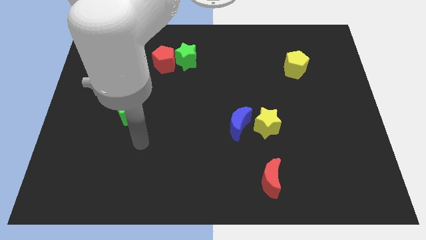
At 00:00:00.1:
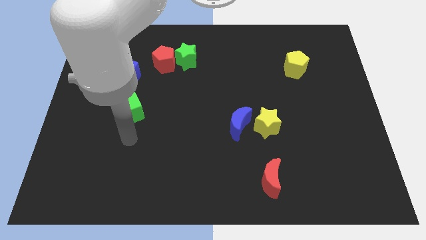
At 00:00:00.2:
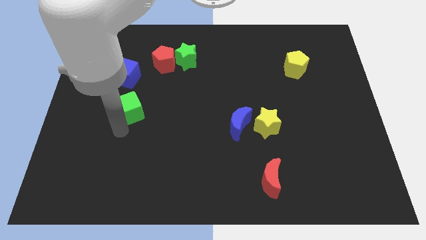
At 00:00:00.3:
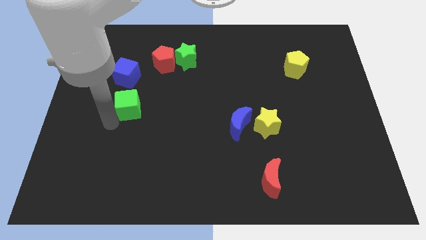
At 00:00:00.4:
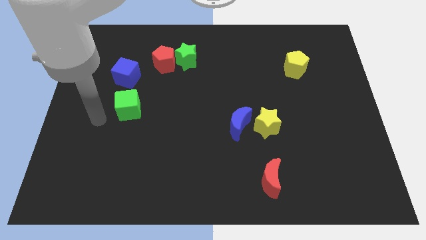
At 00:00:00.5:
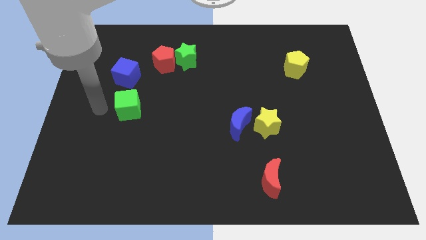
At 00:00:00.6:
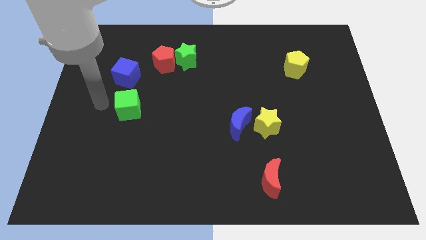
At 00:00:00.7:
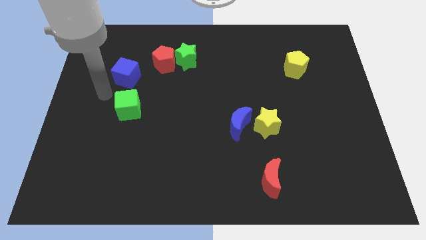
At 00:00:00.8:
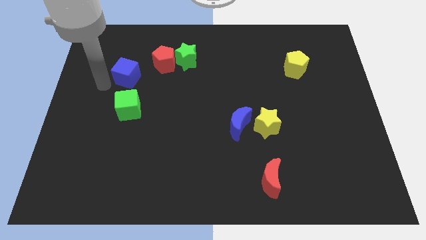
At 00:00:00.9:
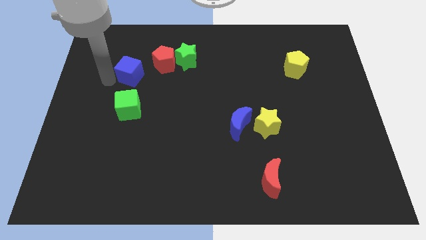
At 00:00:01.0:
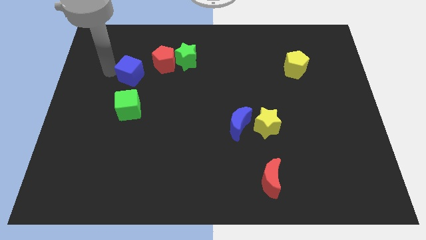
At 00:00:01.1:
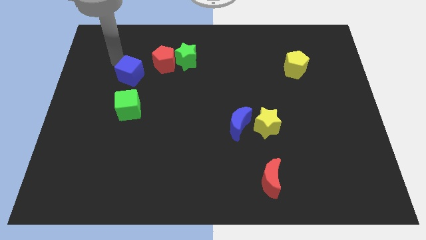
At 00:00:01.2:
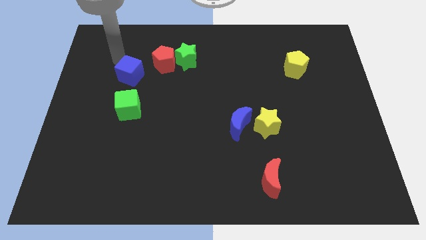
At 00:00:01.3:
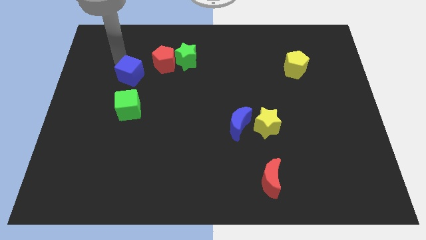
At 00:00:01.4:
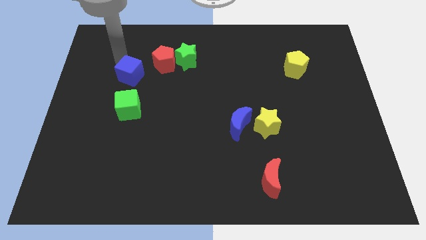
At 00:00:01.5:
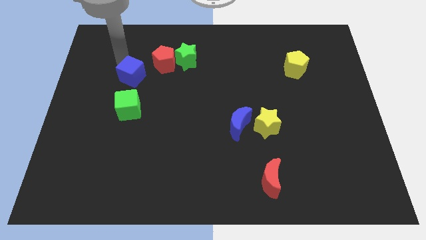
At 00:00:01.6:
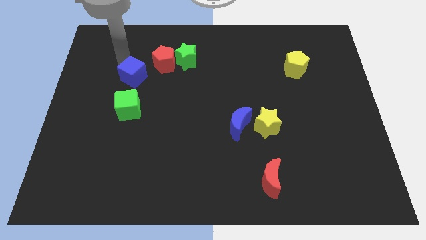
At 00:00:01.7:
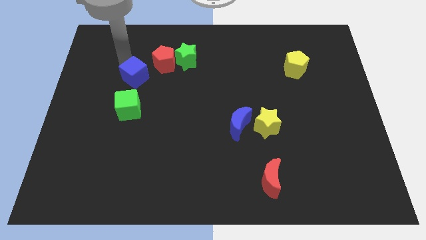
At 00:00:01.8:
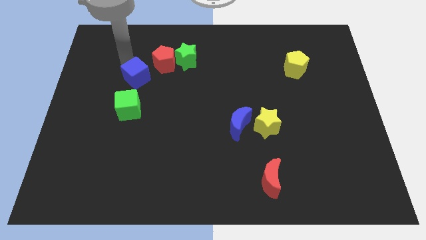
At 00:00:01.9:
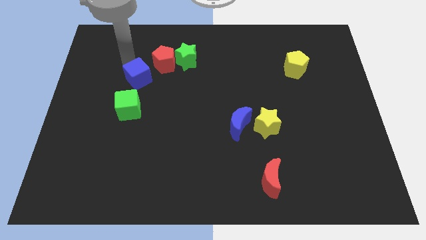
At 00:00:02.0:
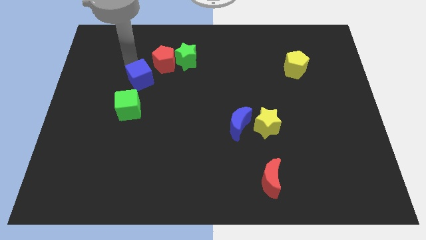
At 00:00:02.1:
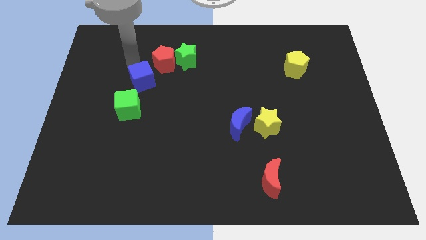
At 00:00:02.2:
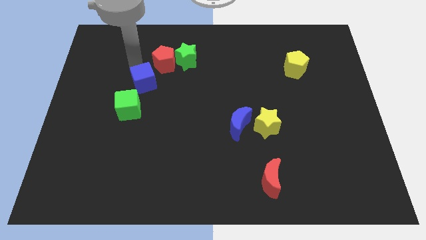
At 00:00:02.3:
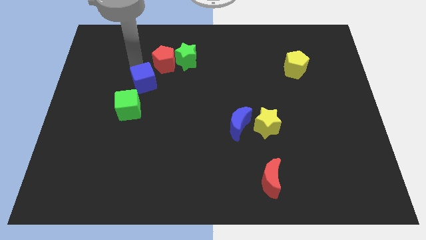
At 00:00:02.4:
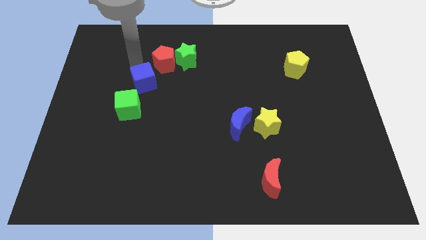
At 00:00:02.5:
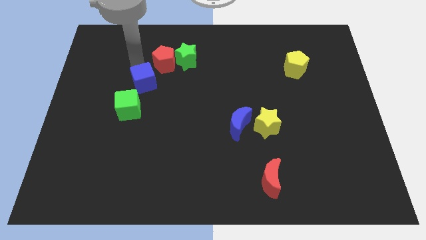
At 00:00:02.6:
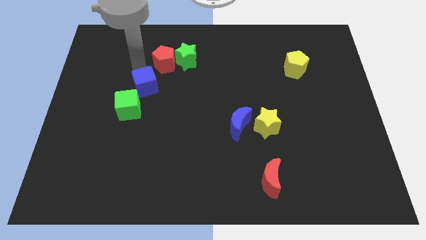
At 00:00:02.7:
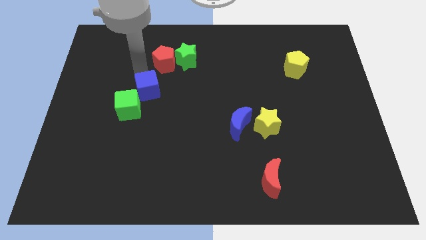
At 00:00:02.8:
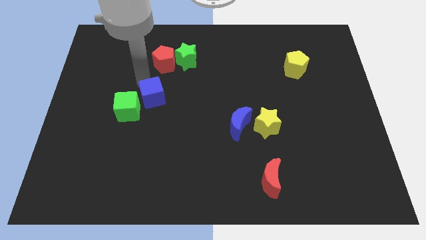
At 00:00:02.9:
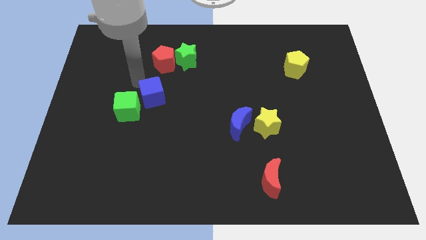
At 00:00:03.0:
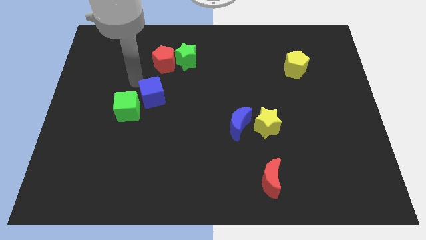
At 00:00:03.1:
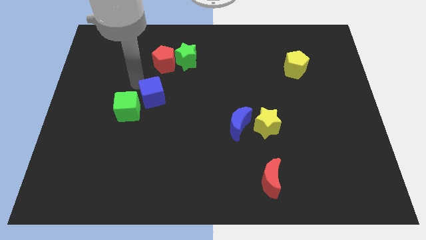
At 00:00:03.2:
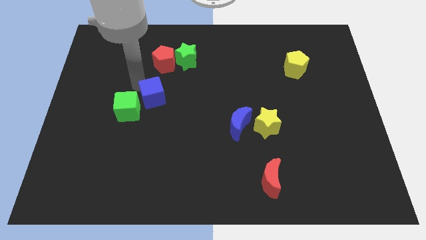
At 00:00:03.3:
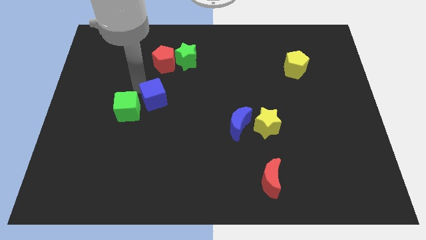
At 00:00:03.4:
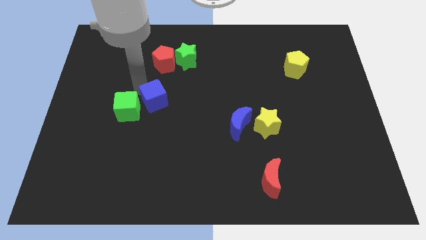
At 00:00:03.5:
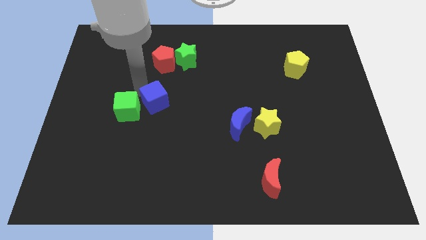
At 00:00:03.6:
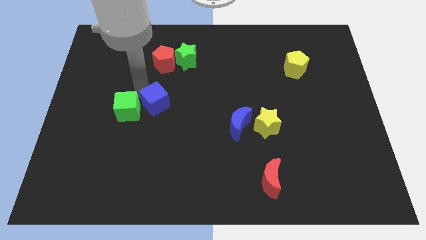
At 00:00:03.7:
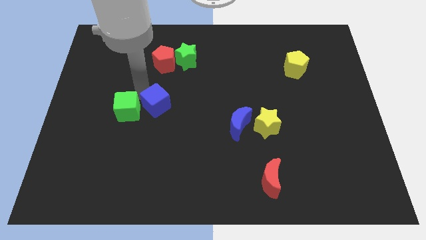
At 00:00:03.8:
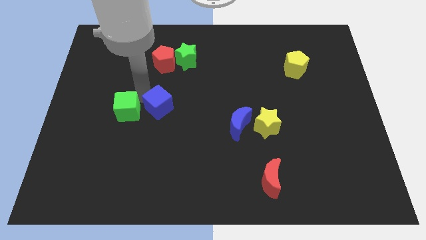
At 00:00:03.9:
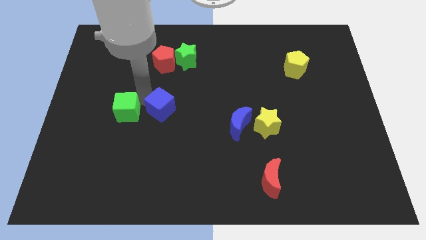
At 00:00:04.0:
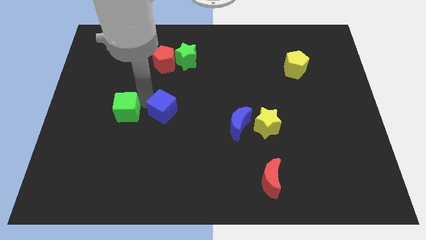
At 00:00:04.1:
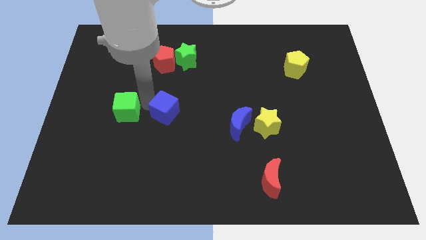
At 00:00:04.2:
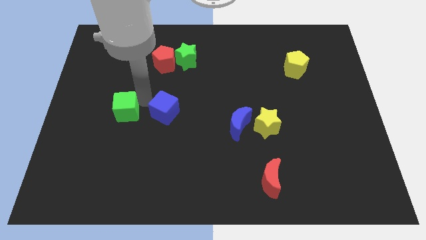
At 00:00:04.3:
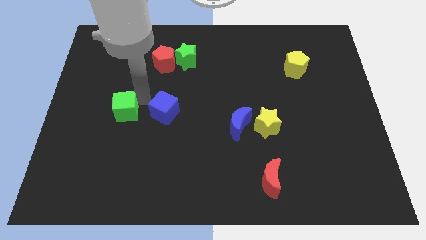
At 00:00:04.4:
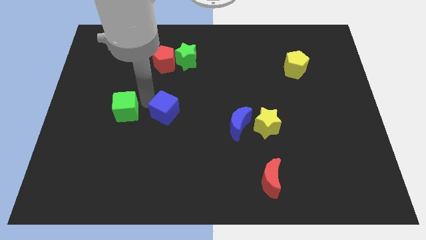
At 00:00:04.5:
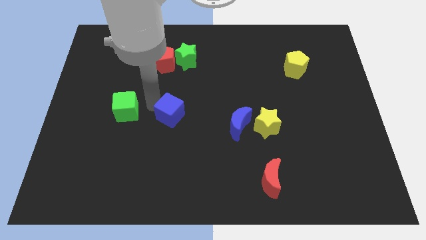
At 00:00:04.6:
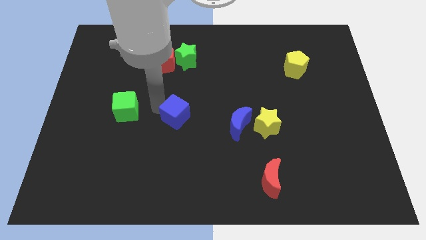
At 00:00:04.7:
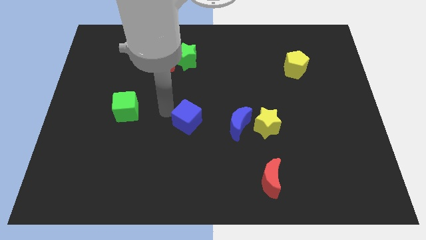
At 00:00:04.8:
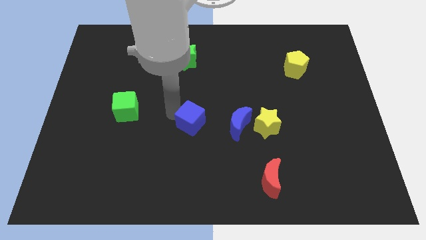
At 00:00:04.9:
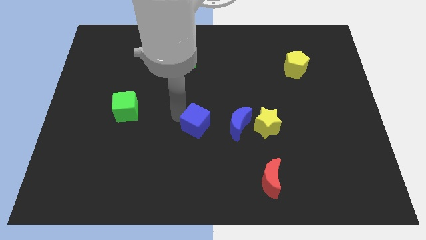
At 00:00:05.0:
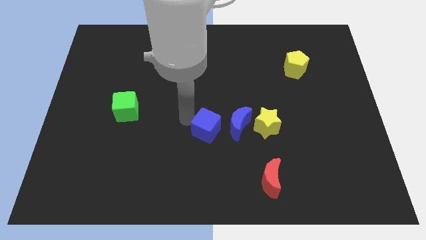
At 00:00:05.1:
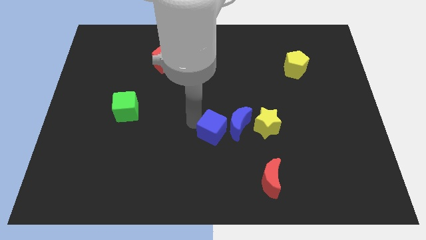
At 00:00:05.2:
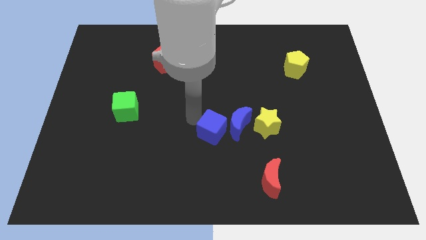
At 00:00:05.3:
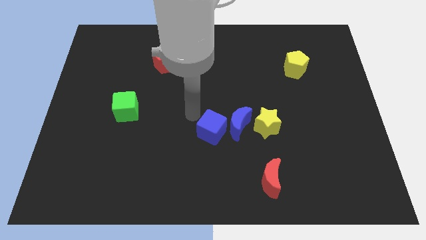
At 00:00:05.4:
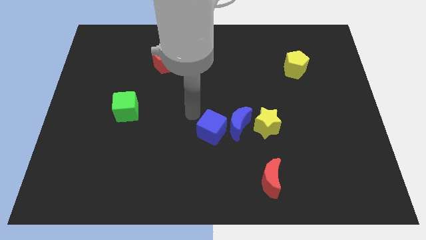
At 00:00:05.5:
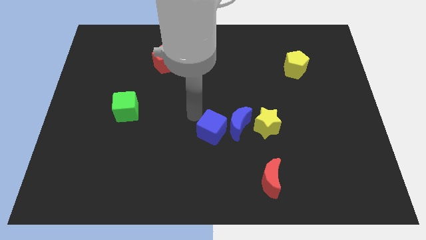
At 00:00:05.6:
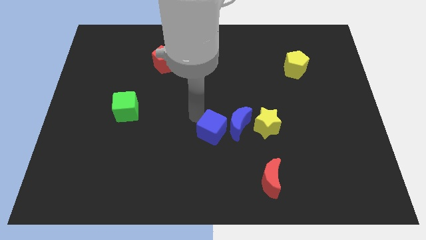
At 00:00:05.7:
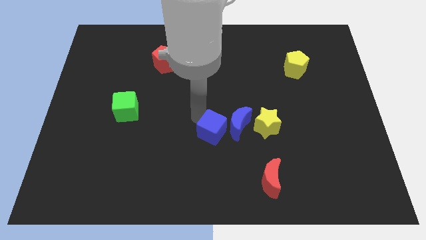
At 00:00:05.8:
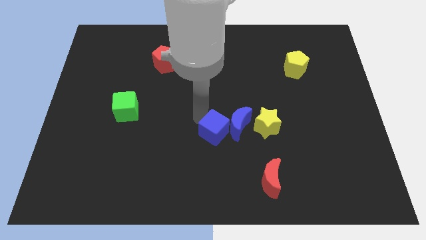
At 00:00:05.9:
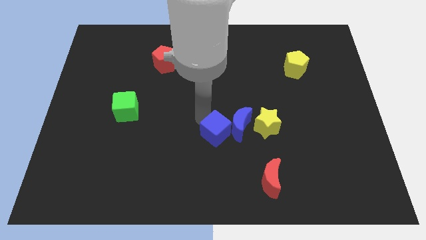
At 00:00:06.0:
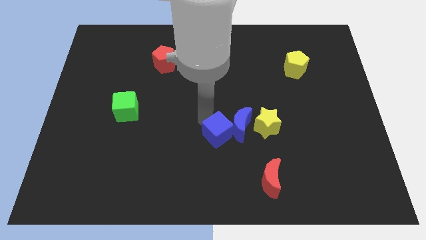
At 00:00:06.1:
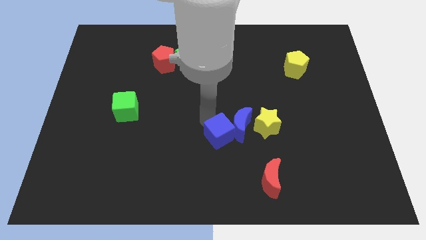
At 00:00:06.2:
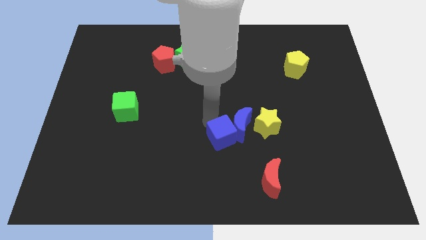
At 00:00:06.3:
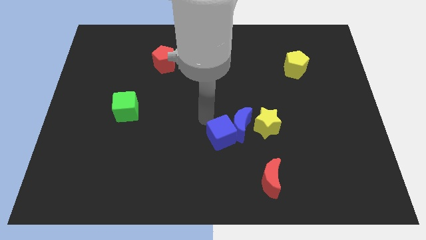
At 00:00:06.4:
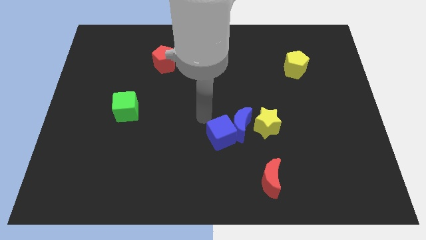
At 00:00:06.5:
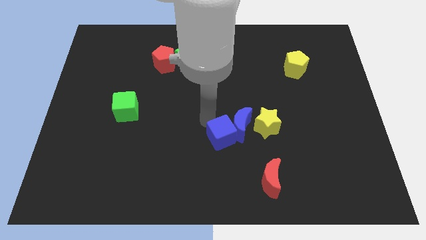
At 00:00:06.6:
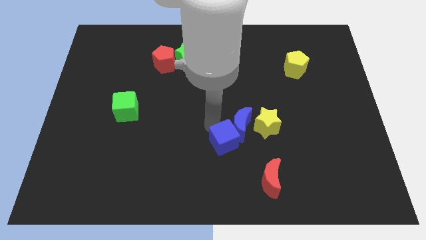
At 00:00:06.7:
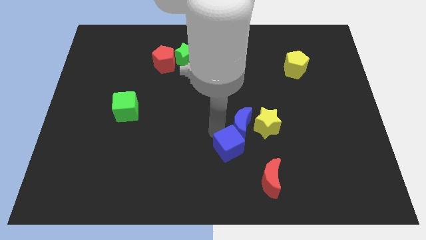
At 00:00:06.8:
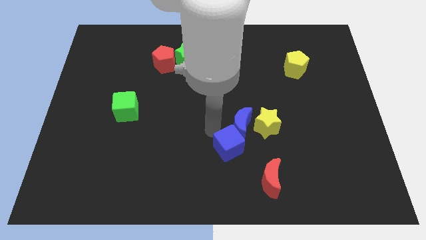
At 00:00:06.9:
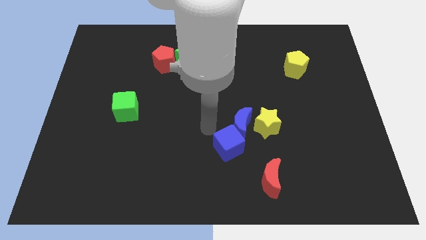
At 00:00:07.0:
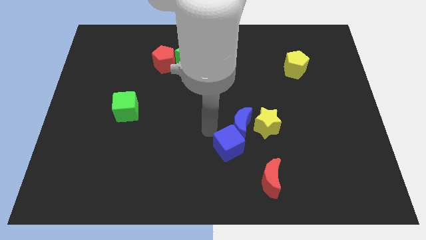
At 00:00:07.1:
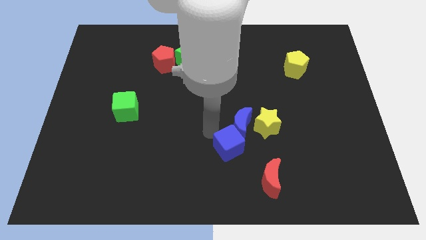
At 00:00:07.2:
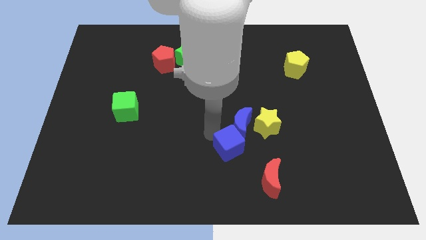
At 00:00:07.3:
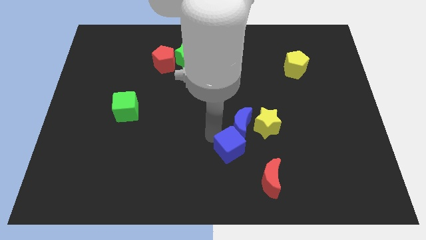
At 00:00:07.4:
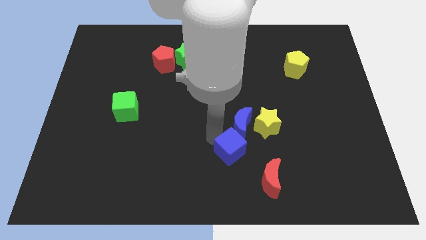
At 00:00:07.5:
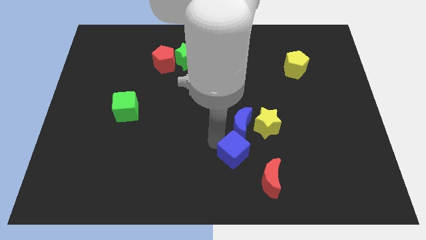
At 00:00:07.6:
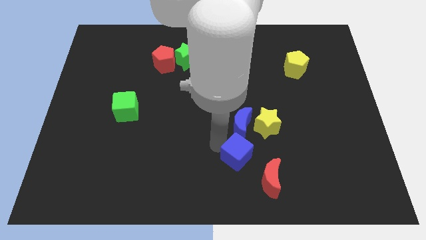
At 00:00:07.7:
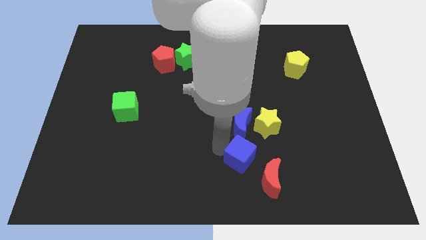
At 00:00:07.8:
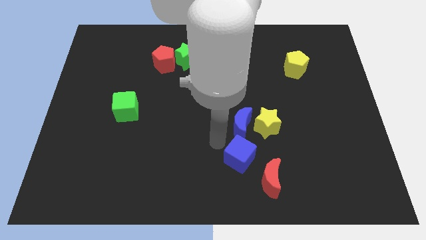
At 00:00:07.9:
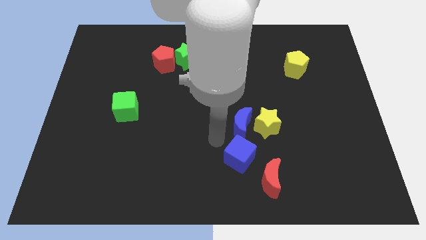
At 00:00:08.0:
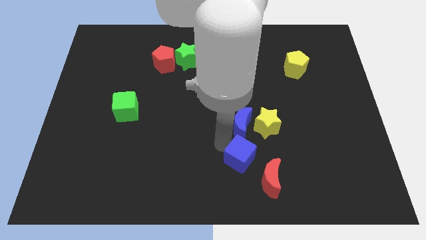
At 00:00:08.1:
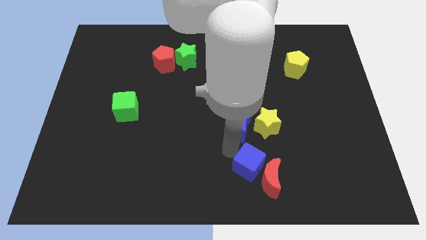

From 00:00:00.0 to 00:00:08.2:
push the blue cube next to the red moon
